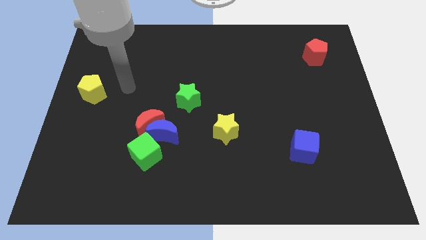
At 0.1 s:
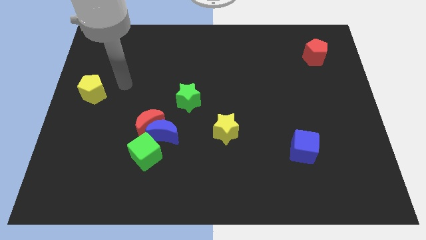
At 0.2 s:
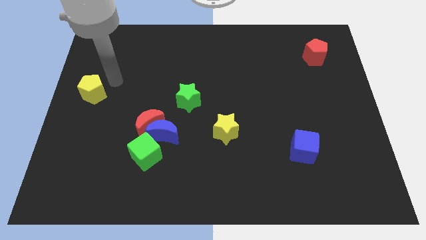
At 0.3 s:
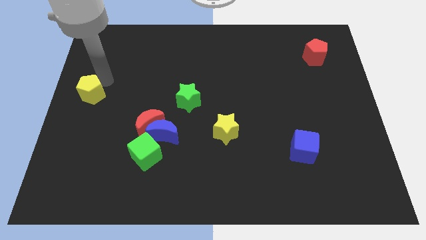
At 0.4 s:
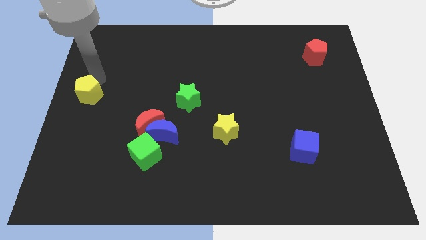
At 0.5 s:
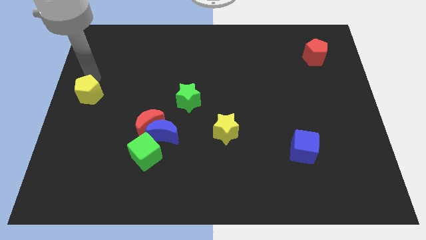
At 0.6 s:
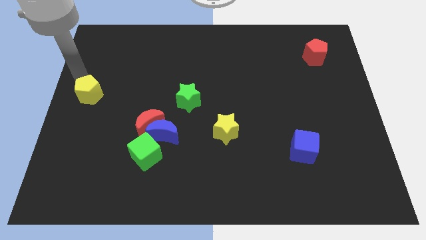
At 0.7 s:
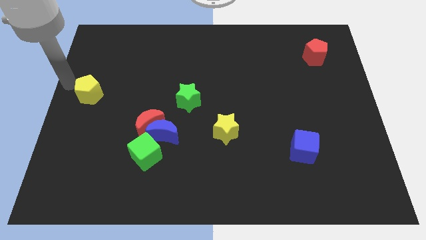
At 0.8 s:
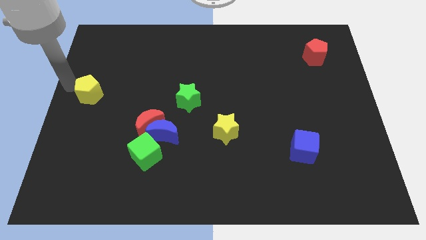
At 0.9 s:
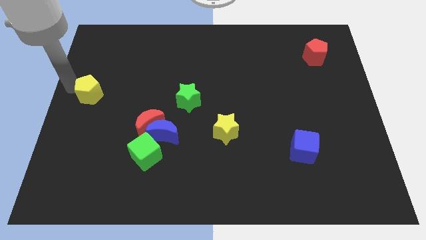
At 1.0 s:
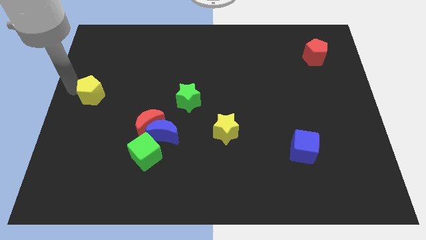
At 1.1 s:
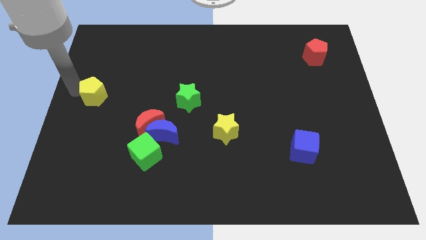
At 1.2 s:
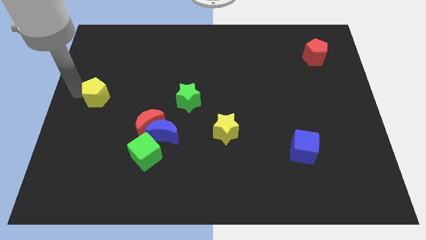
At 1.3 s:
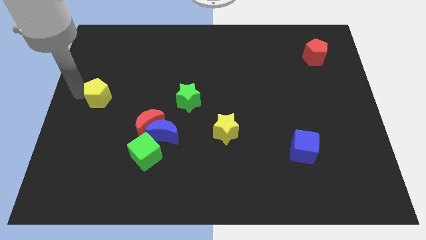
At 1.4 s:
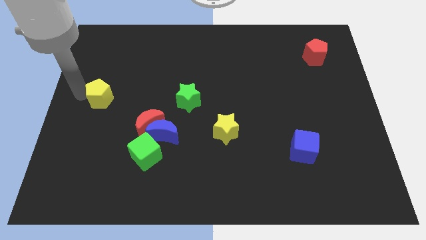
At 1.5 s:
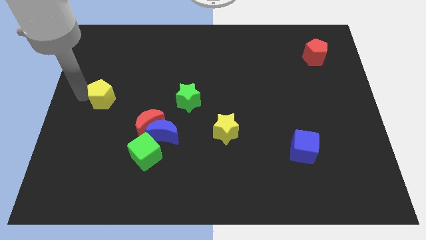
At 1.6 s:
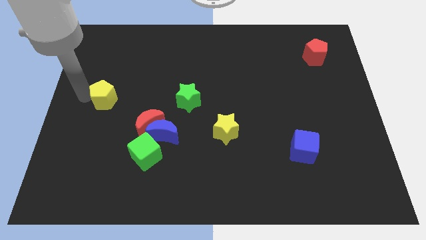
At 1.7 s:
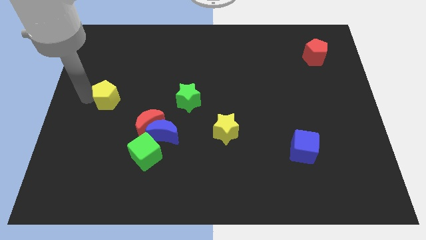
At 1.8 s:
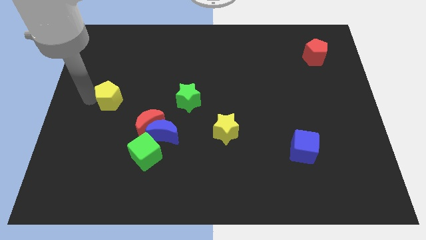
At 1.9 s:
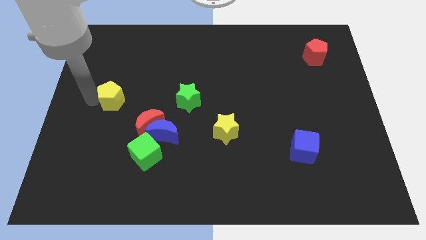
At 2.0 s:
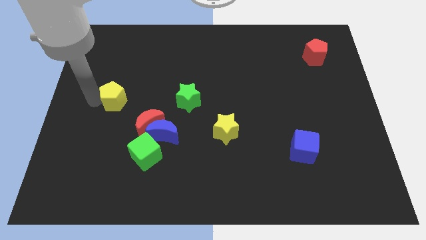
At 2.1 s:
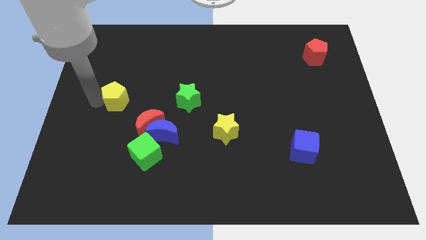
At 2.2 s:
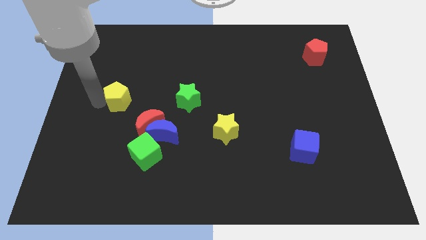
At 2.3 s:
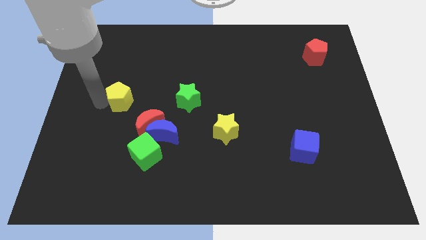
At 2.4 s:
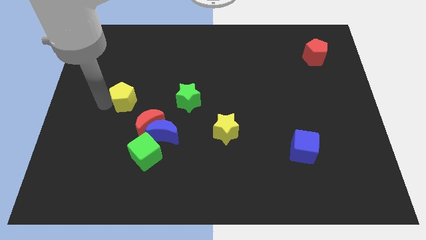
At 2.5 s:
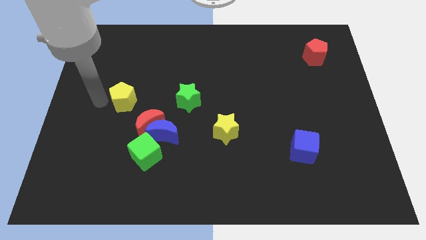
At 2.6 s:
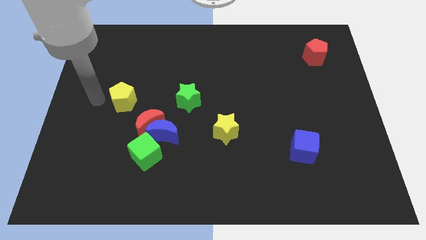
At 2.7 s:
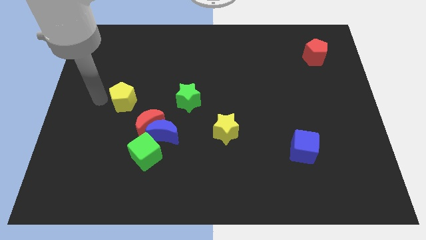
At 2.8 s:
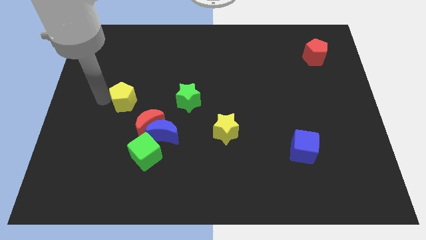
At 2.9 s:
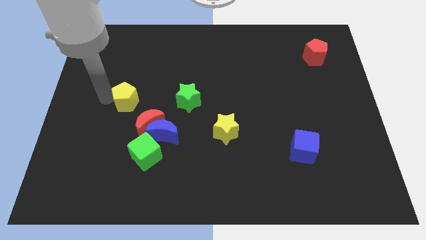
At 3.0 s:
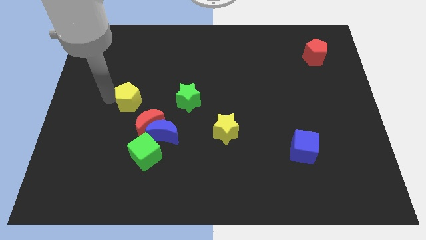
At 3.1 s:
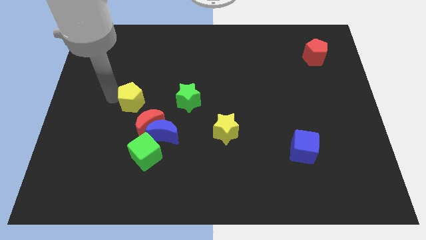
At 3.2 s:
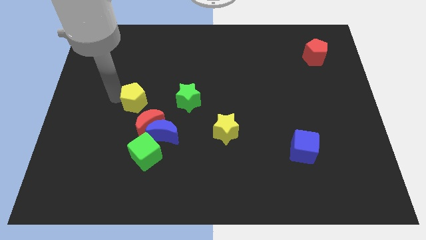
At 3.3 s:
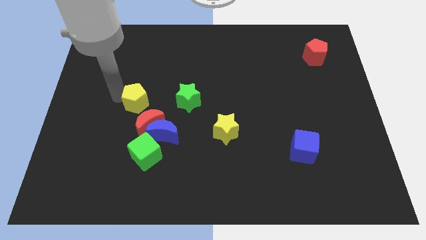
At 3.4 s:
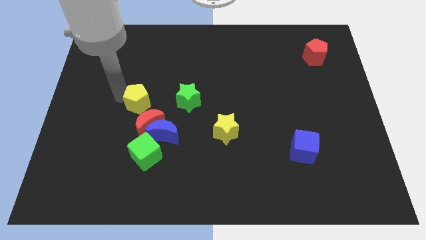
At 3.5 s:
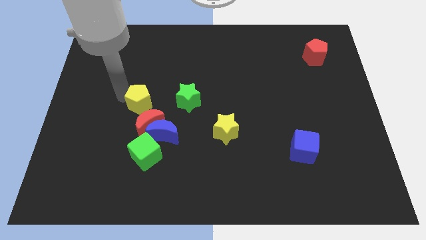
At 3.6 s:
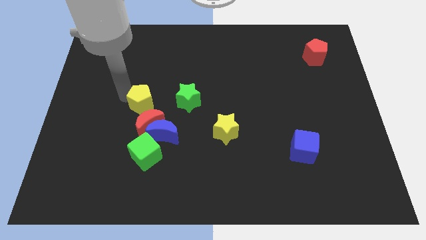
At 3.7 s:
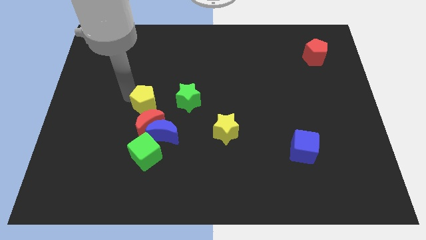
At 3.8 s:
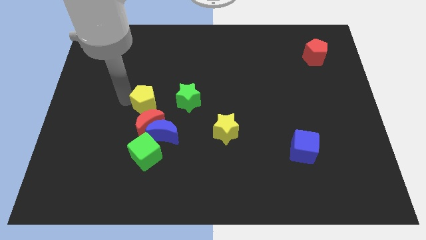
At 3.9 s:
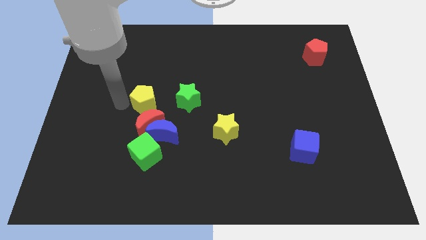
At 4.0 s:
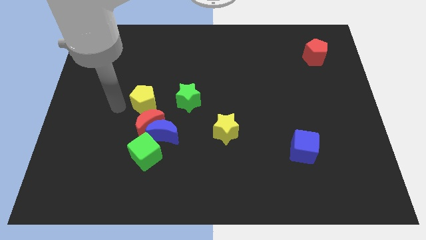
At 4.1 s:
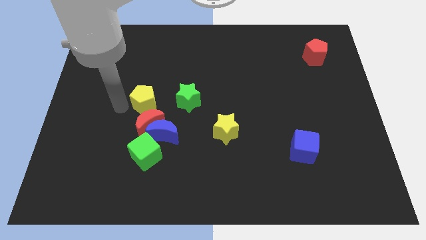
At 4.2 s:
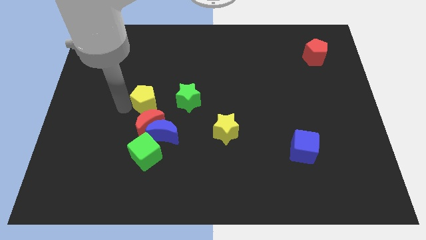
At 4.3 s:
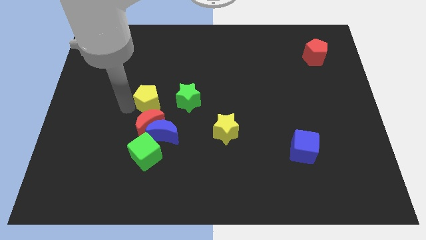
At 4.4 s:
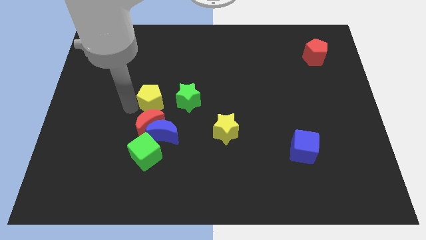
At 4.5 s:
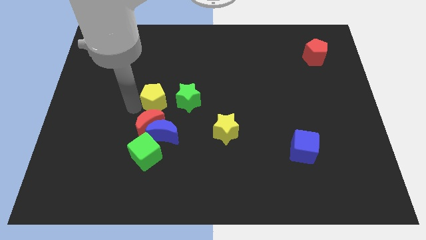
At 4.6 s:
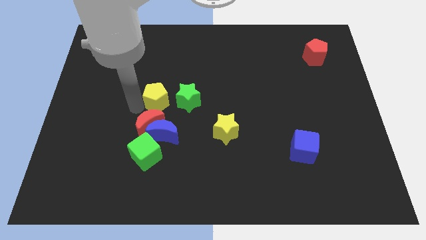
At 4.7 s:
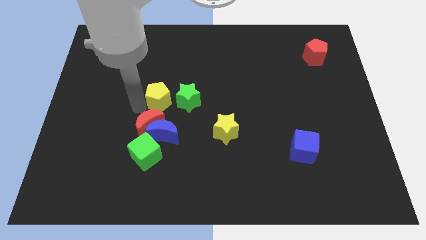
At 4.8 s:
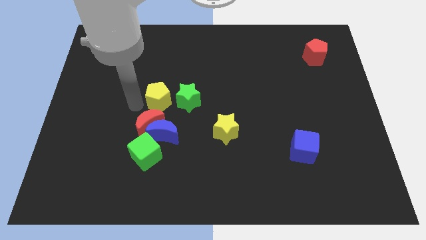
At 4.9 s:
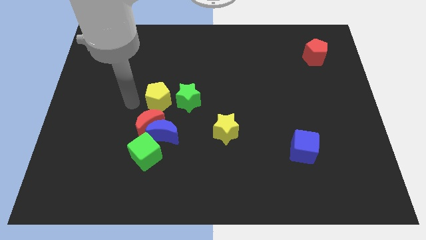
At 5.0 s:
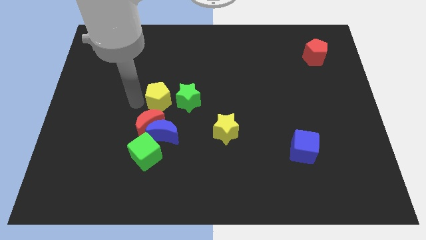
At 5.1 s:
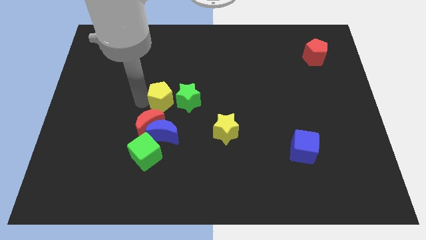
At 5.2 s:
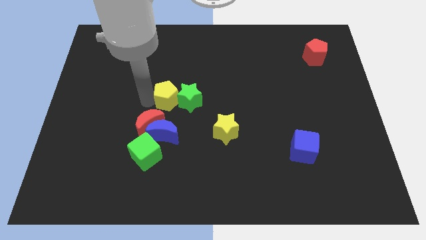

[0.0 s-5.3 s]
move the yellow pentagon next to the green star

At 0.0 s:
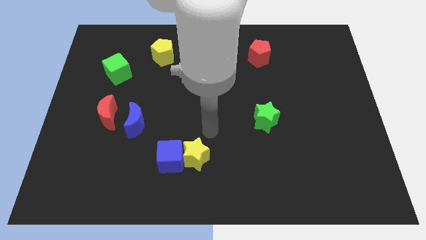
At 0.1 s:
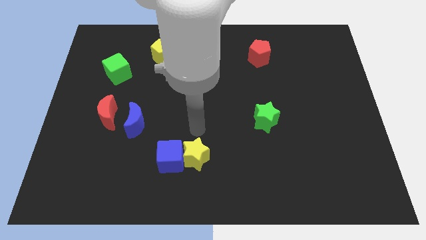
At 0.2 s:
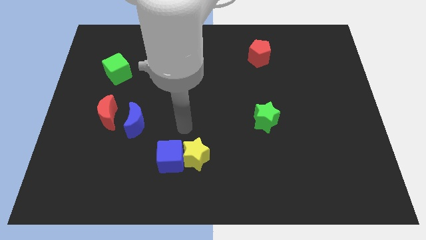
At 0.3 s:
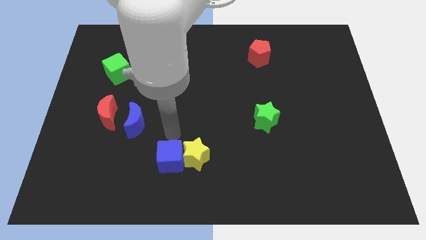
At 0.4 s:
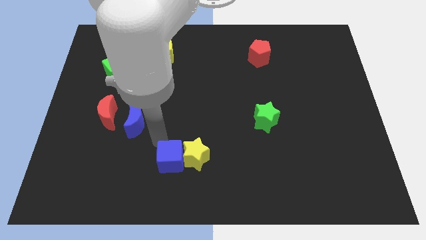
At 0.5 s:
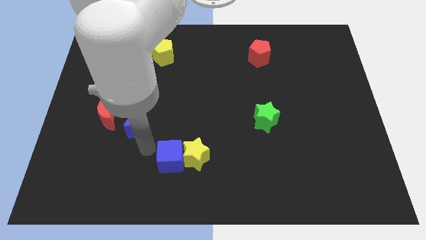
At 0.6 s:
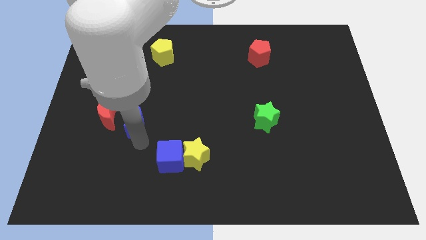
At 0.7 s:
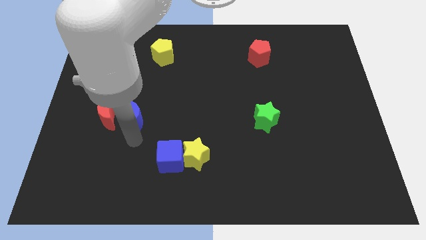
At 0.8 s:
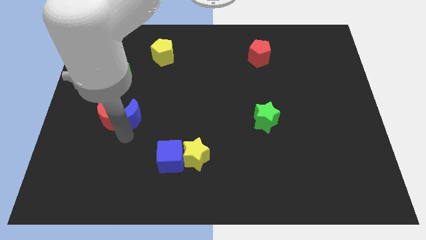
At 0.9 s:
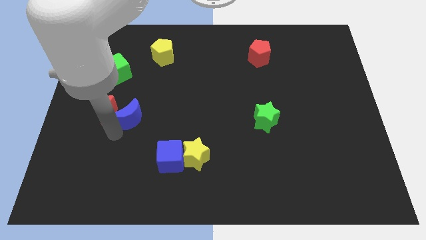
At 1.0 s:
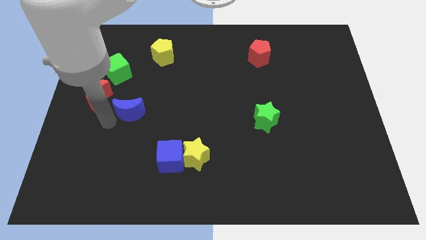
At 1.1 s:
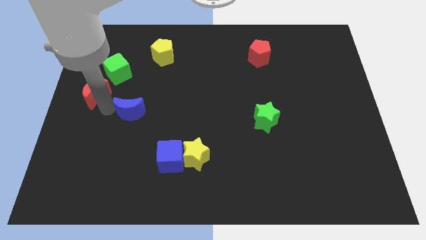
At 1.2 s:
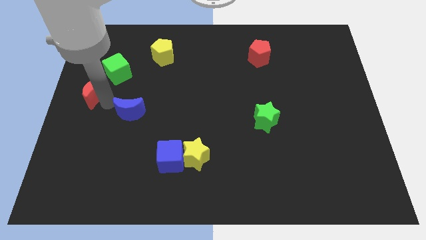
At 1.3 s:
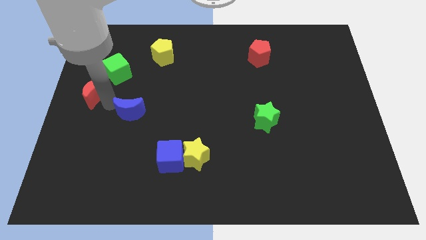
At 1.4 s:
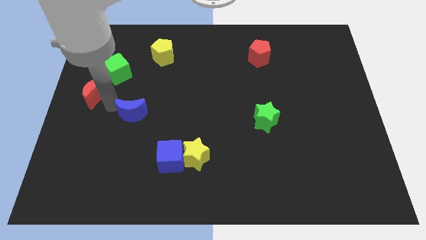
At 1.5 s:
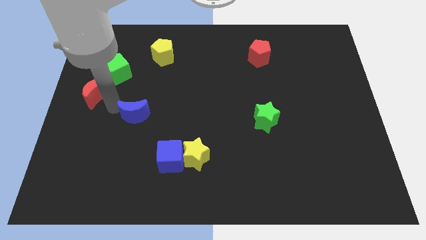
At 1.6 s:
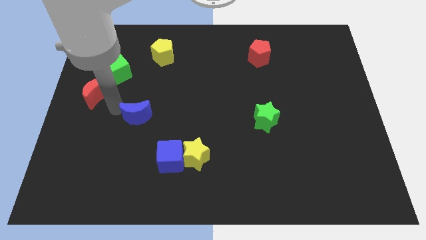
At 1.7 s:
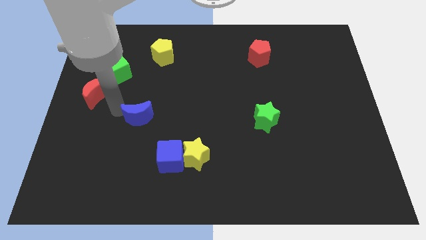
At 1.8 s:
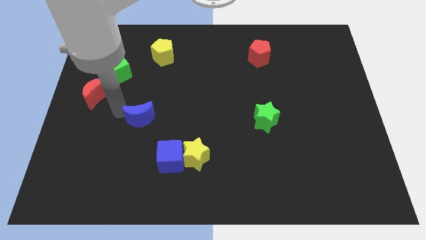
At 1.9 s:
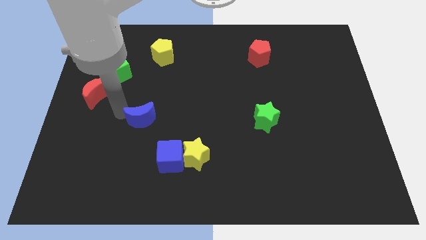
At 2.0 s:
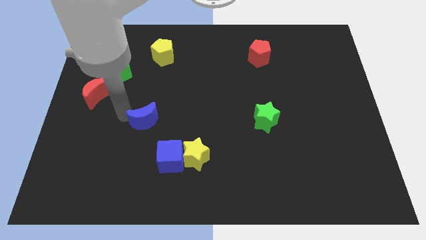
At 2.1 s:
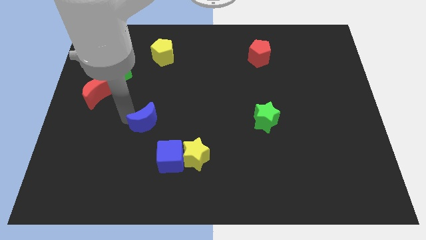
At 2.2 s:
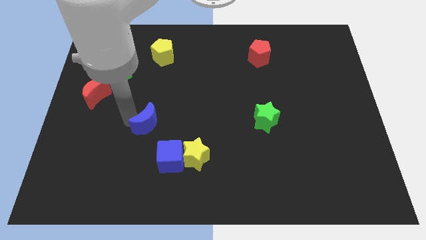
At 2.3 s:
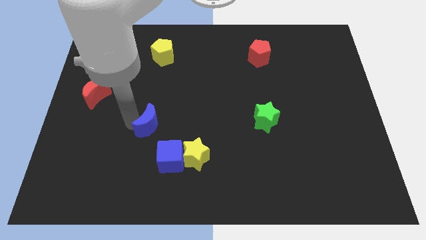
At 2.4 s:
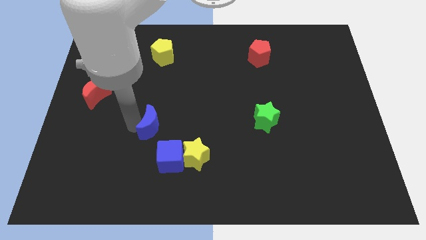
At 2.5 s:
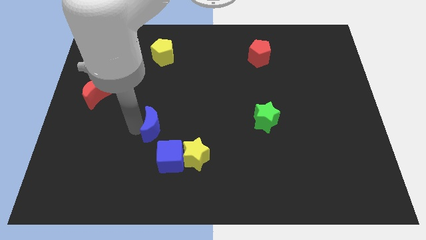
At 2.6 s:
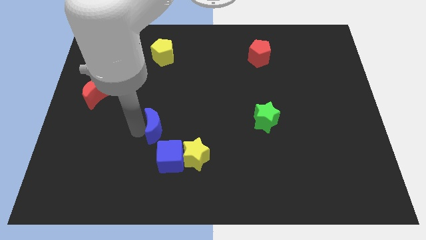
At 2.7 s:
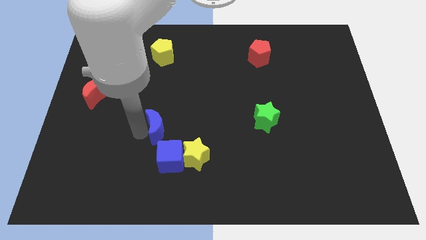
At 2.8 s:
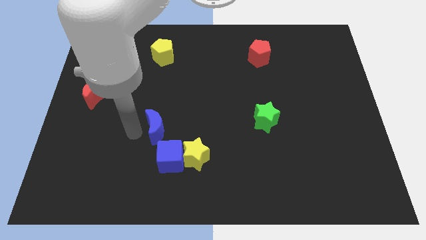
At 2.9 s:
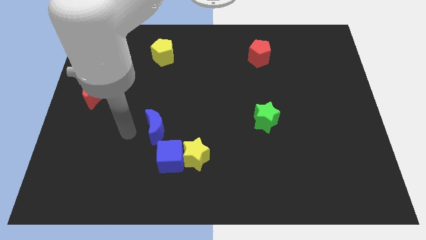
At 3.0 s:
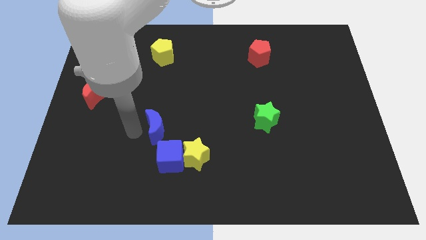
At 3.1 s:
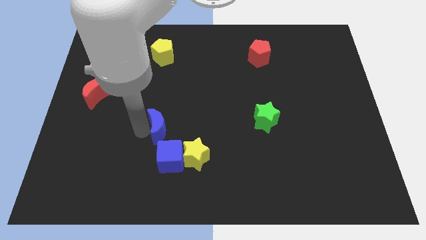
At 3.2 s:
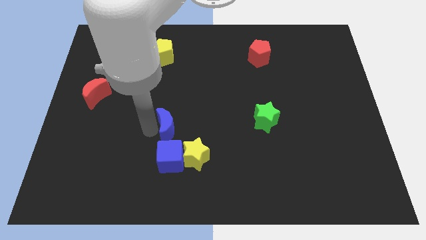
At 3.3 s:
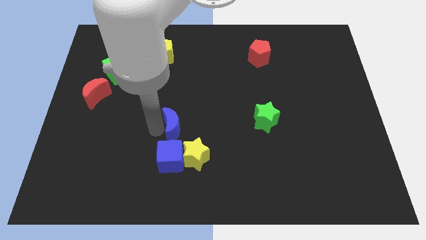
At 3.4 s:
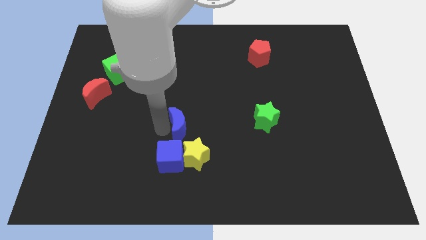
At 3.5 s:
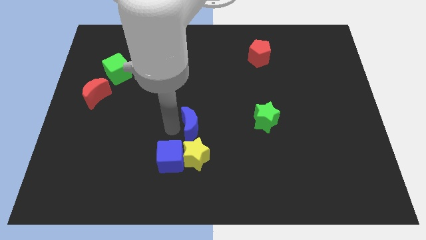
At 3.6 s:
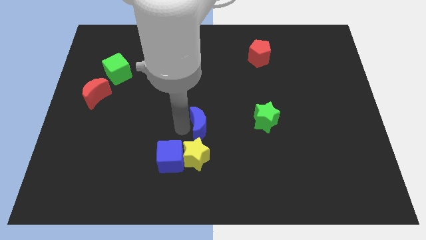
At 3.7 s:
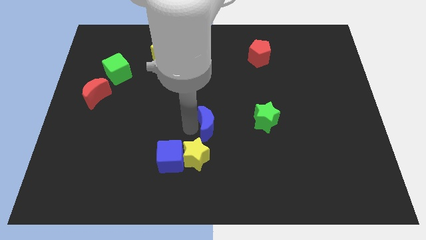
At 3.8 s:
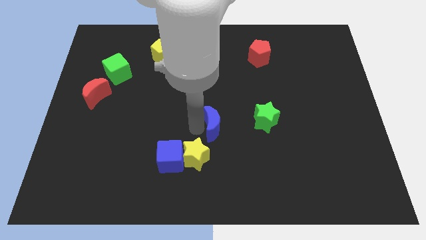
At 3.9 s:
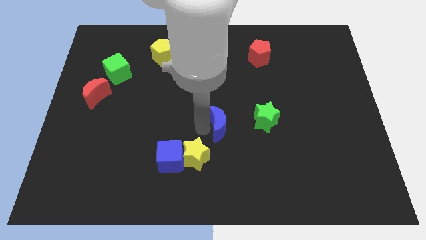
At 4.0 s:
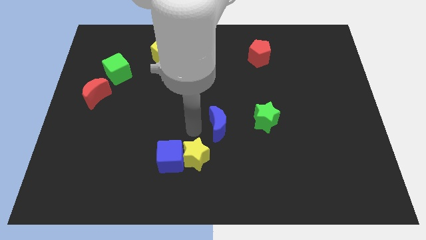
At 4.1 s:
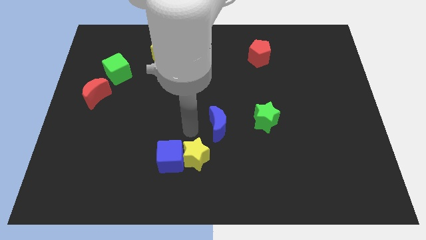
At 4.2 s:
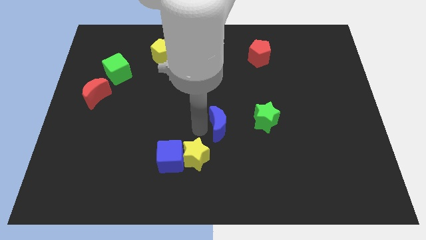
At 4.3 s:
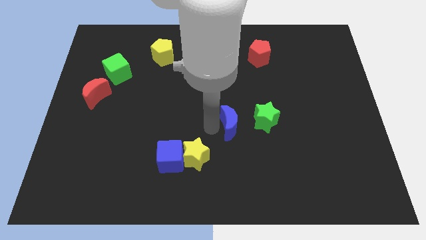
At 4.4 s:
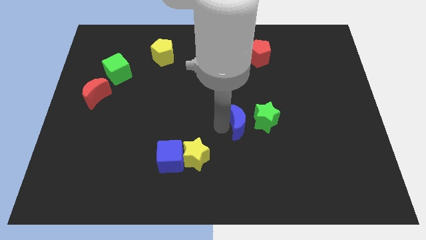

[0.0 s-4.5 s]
put the blue moon towards the green star
